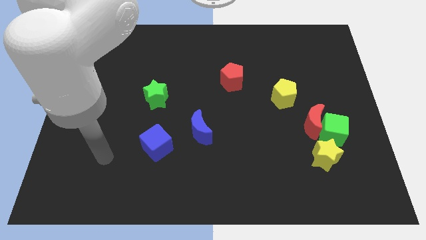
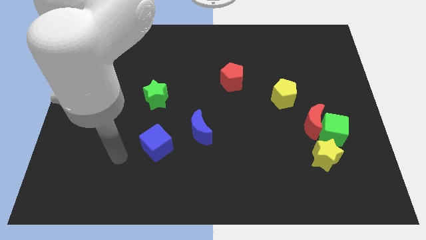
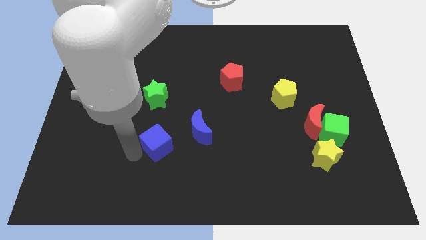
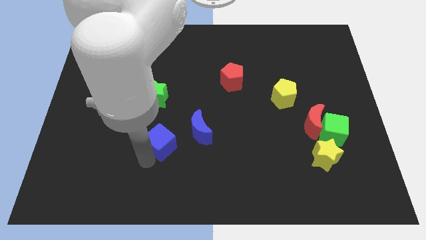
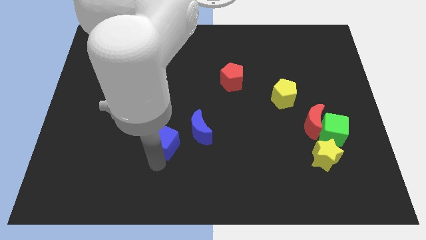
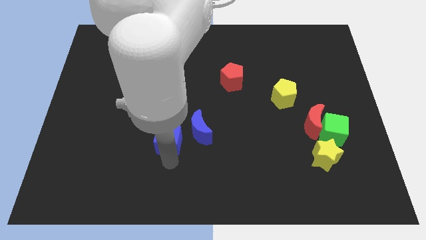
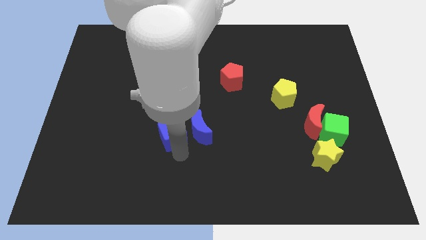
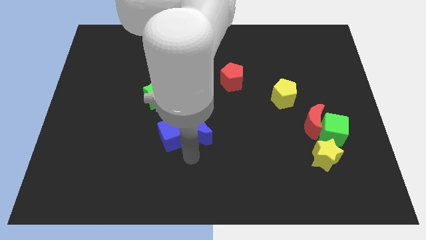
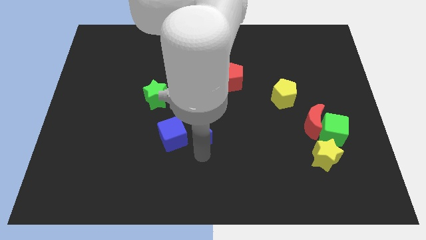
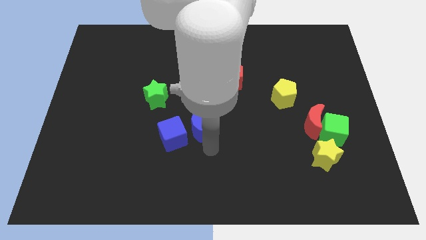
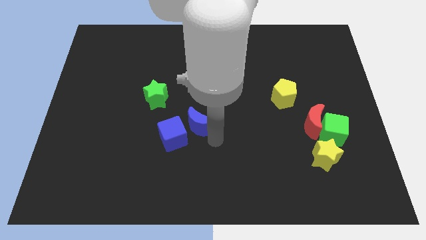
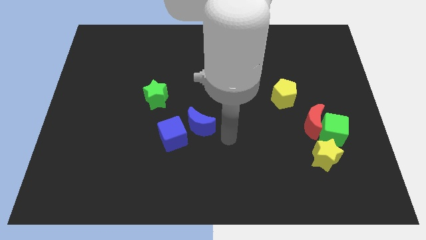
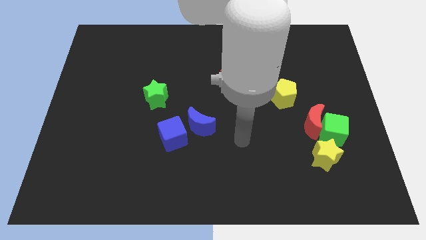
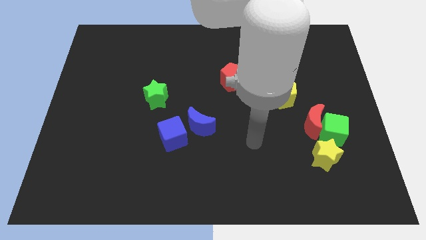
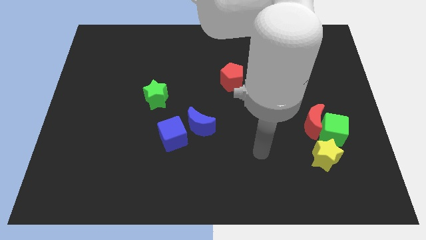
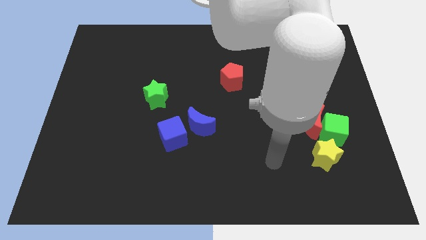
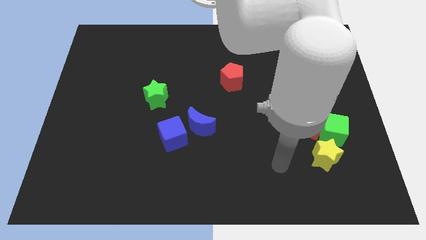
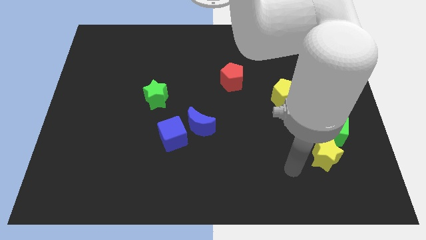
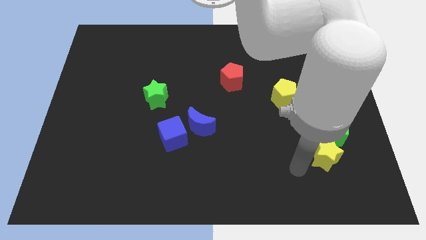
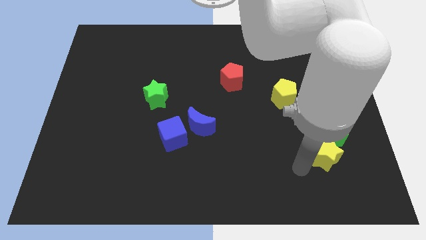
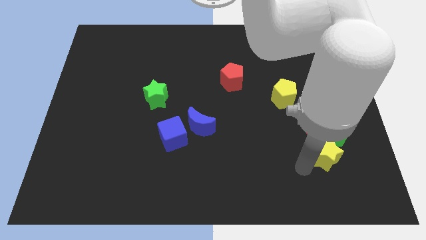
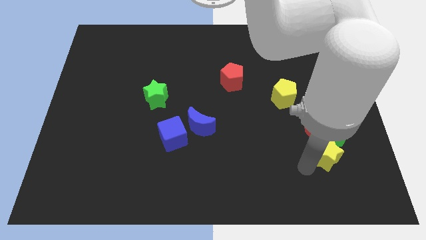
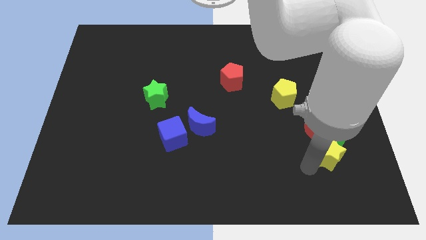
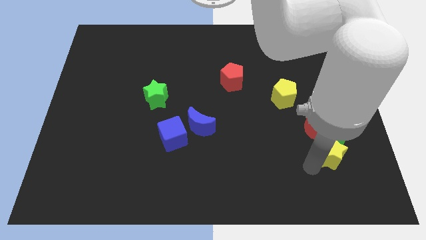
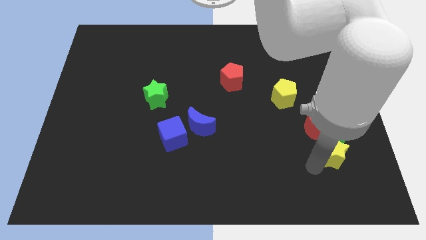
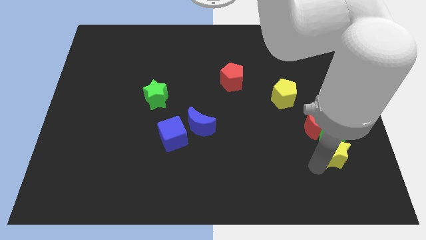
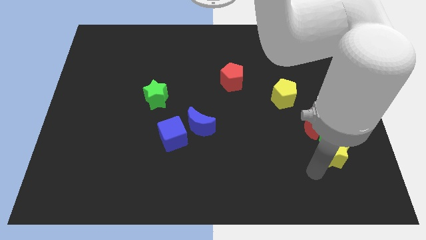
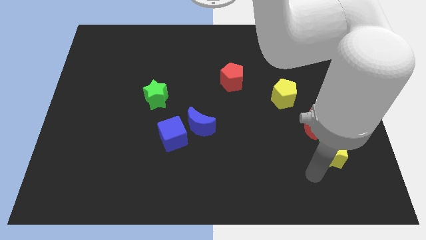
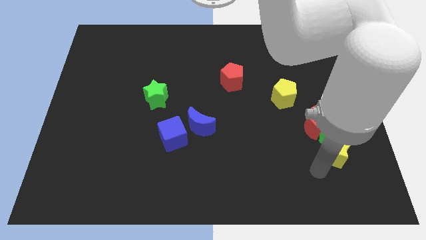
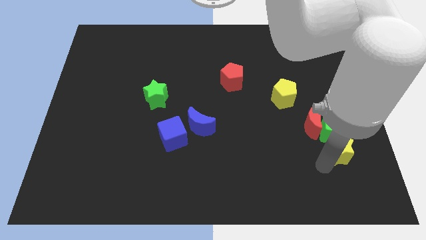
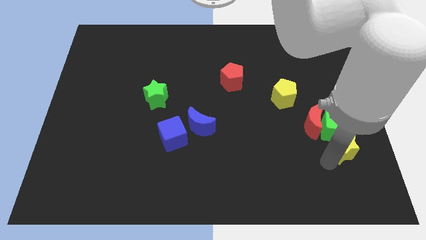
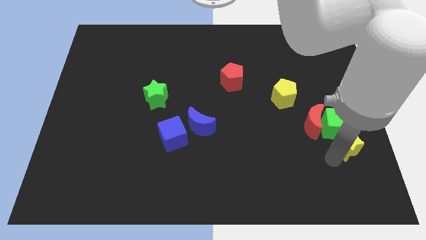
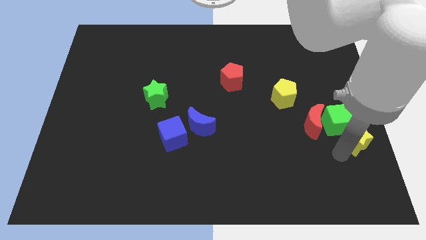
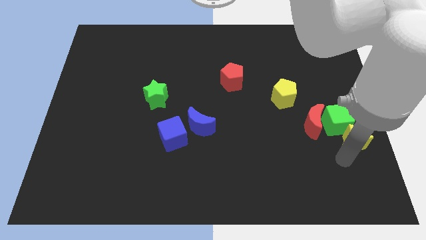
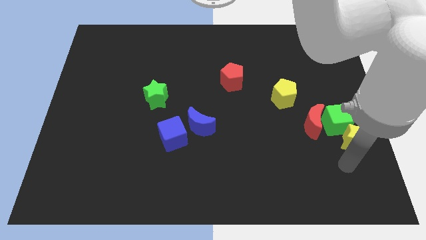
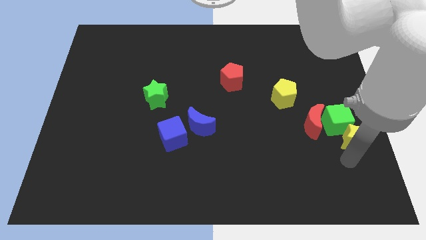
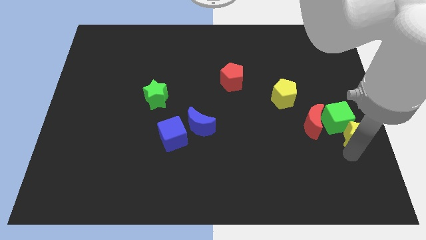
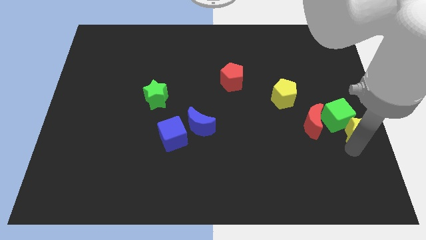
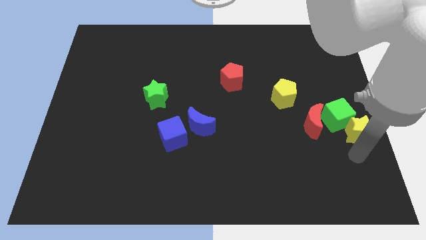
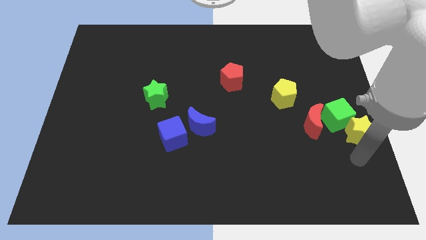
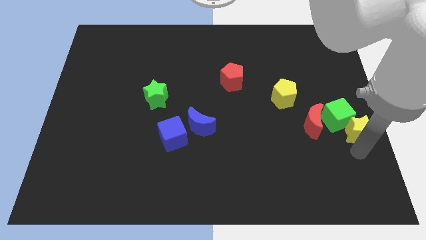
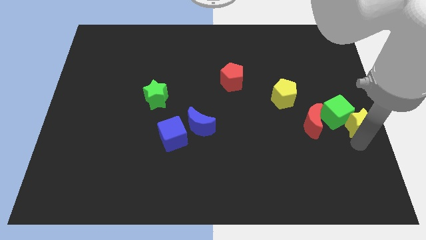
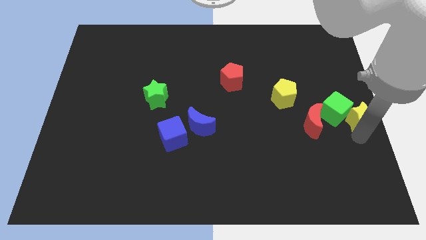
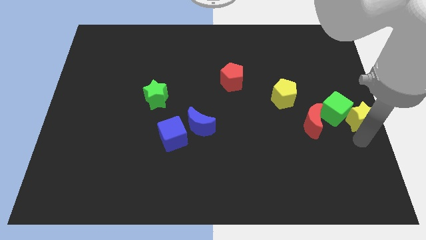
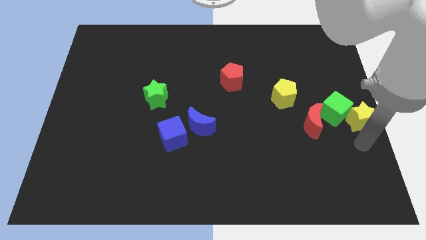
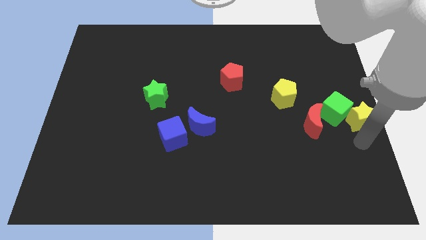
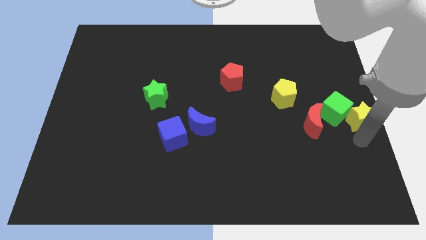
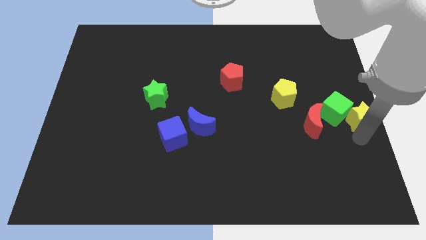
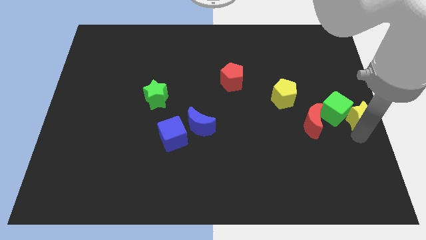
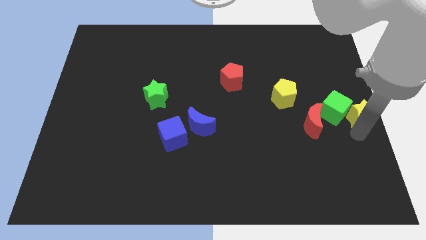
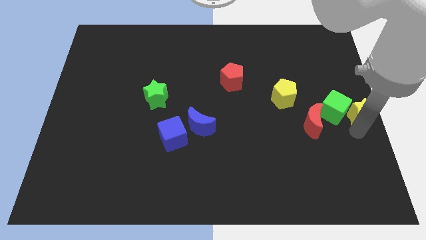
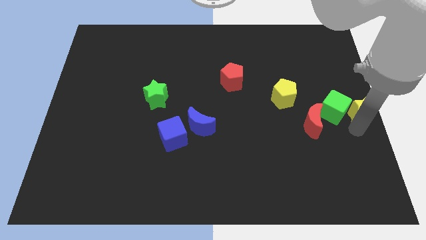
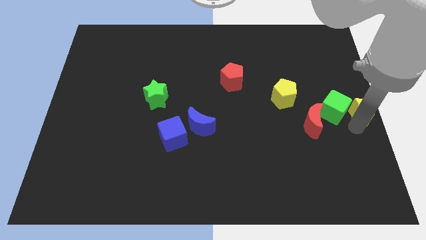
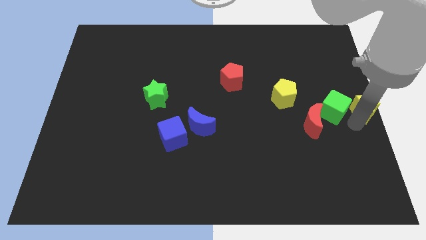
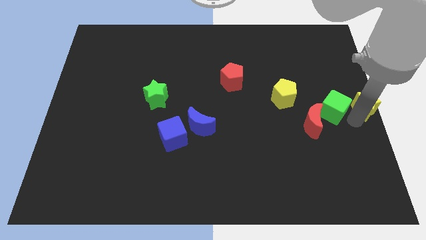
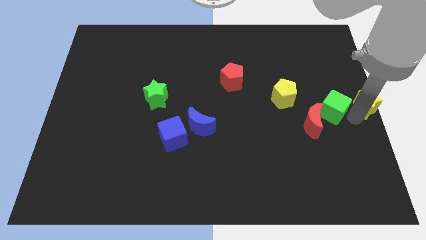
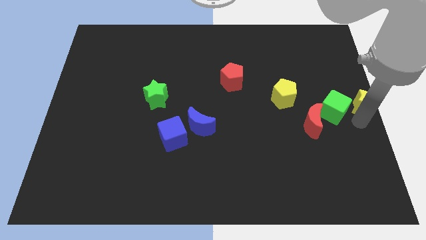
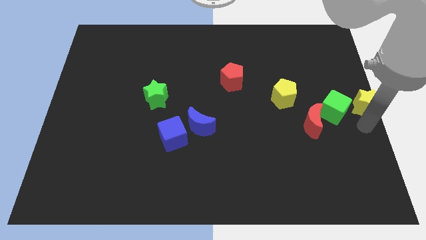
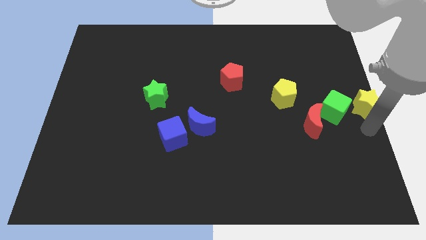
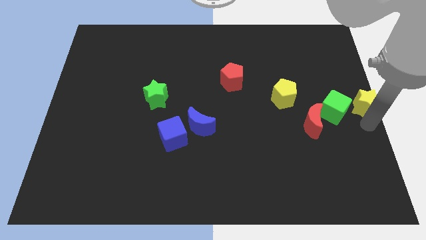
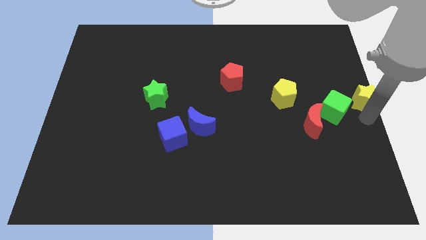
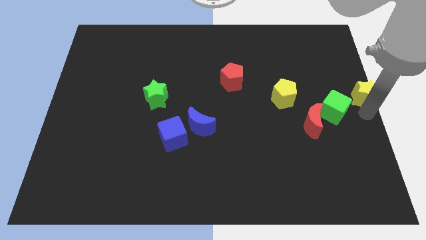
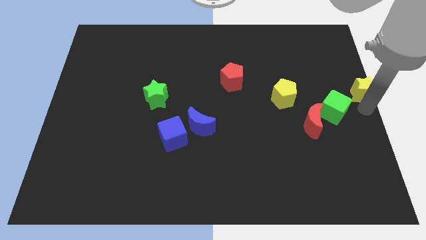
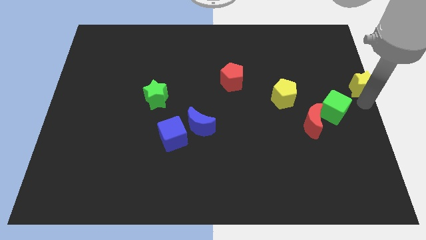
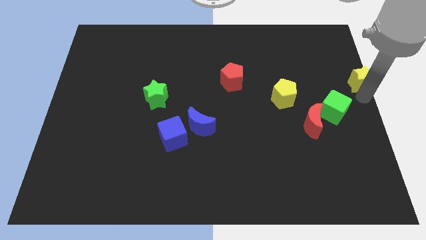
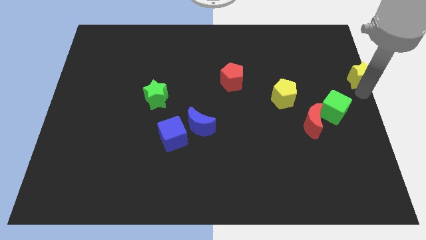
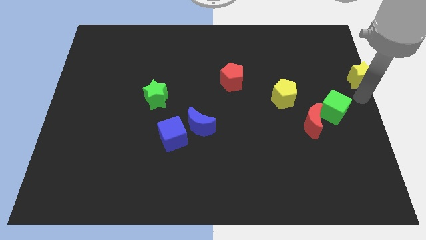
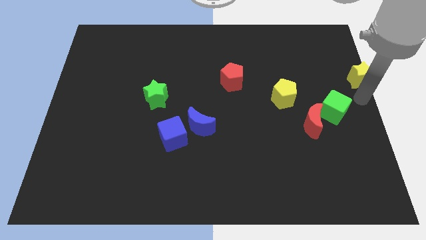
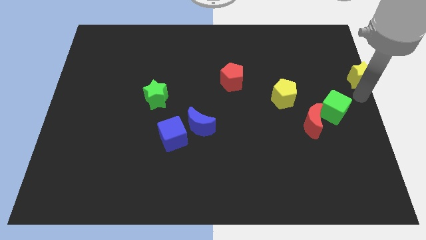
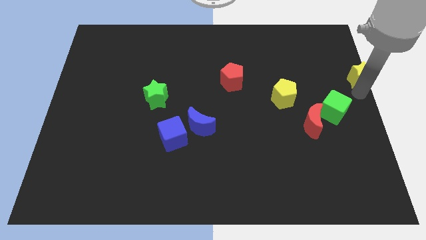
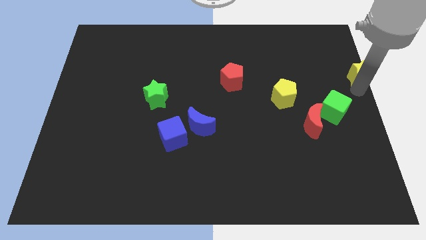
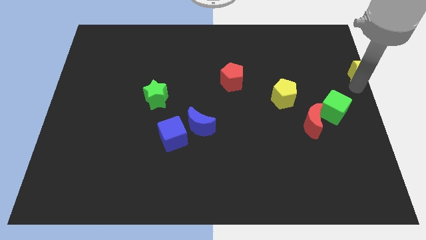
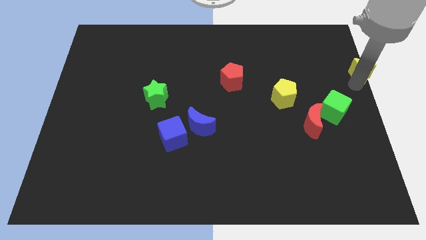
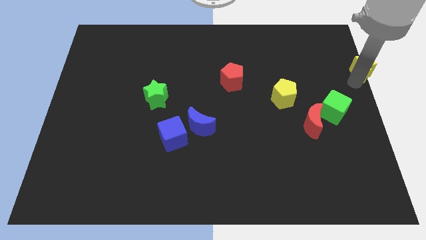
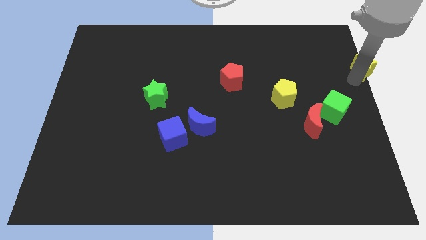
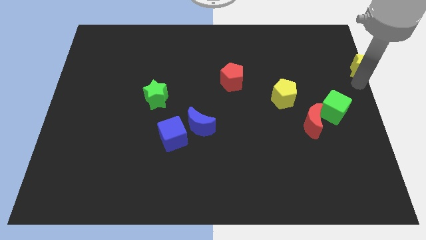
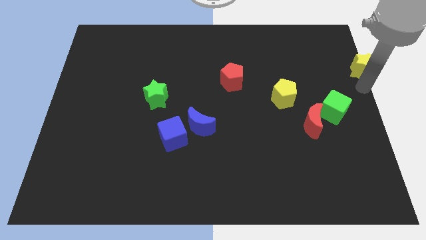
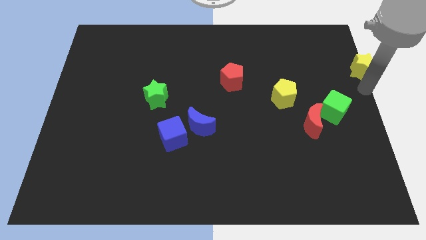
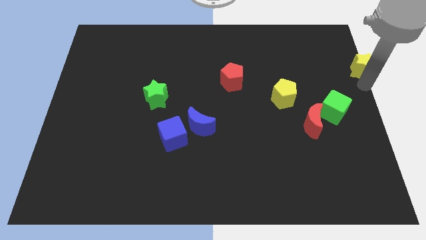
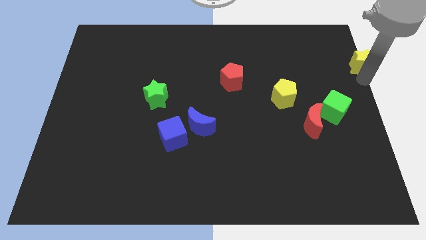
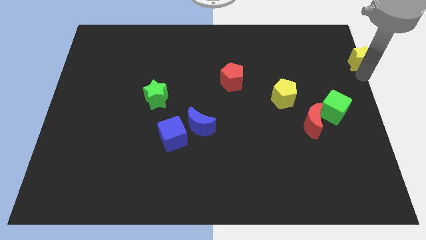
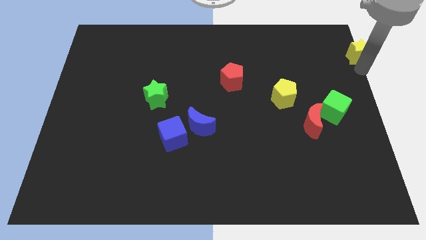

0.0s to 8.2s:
push the yellow star to the top right of the board
